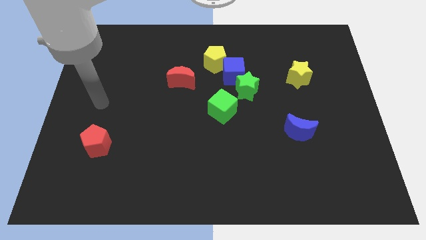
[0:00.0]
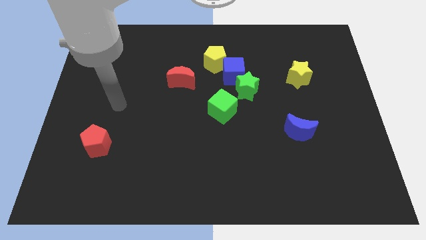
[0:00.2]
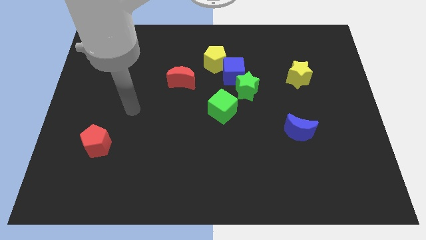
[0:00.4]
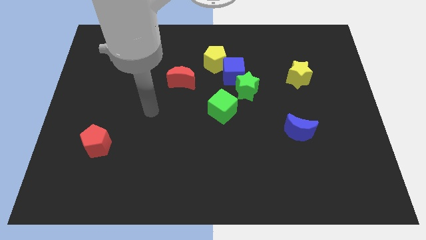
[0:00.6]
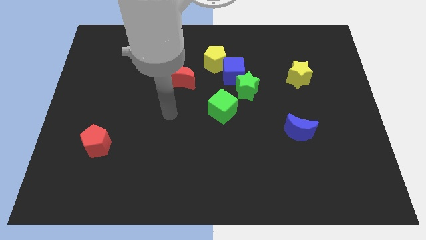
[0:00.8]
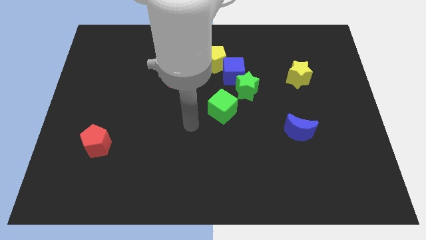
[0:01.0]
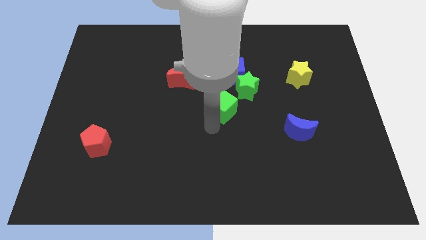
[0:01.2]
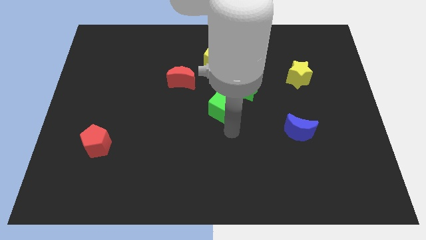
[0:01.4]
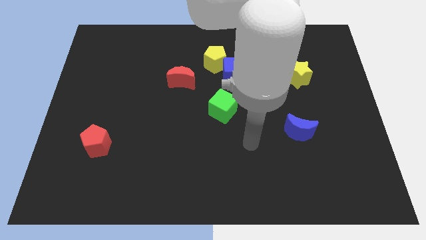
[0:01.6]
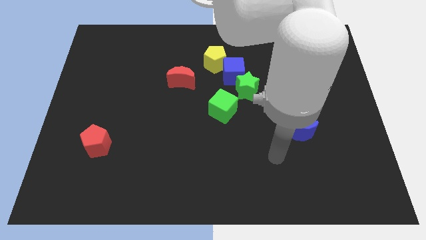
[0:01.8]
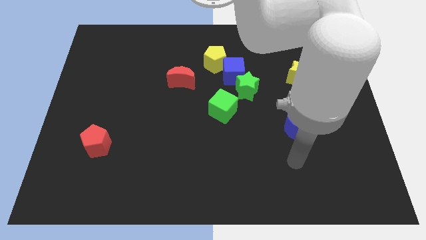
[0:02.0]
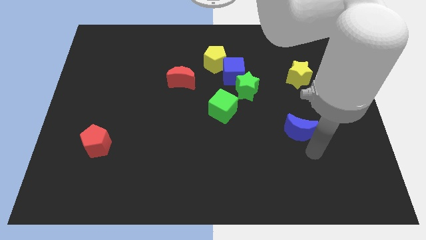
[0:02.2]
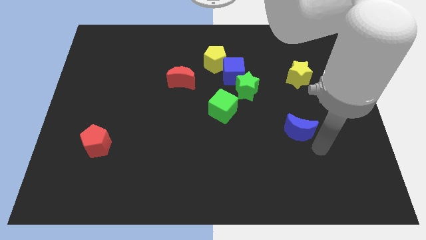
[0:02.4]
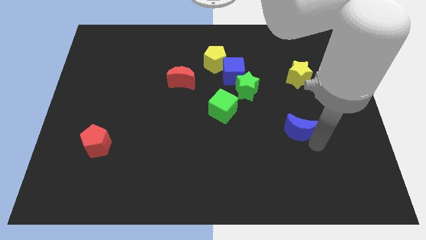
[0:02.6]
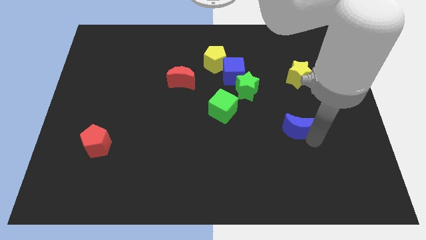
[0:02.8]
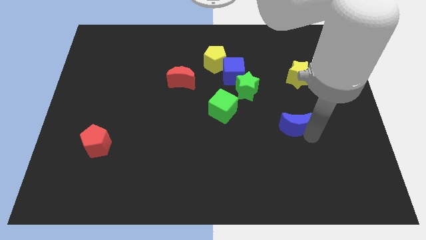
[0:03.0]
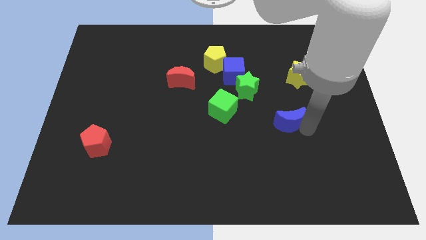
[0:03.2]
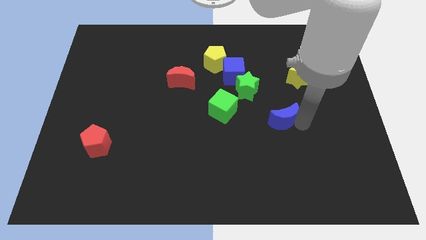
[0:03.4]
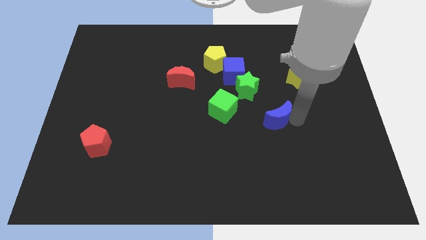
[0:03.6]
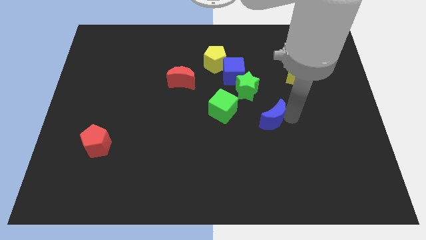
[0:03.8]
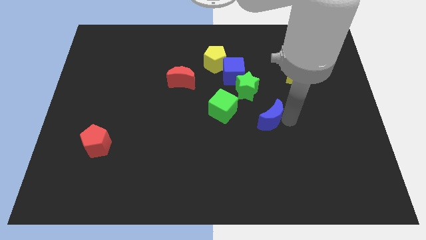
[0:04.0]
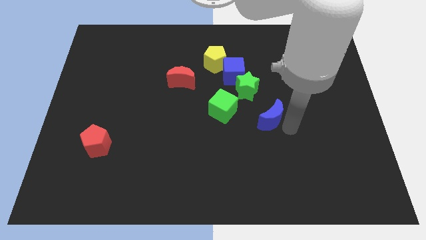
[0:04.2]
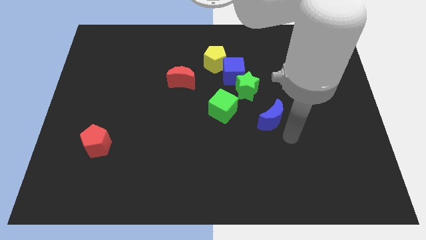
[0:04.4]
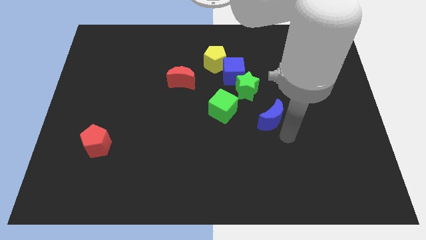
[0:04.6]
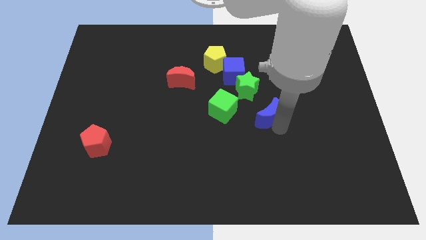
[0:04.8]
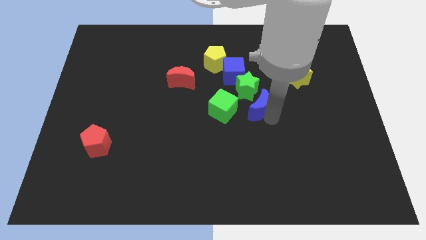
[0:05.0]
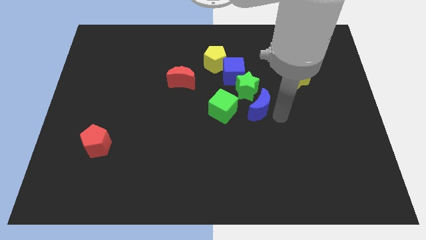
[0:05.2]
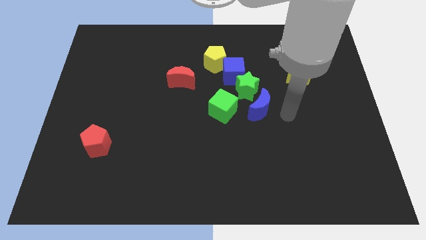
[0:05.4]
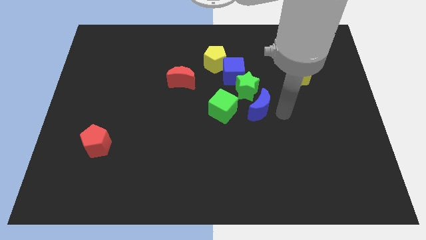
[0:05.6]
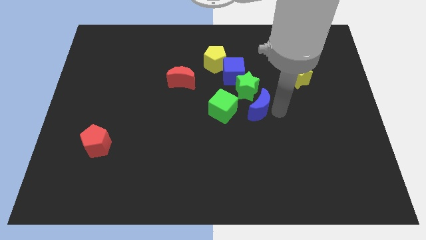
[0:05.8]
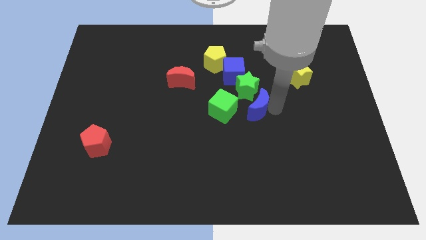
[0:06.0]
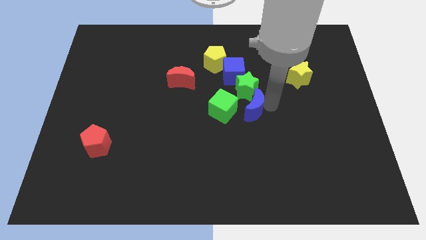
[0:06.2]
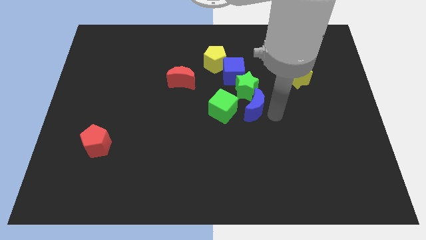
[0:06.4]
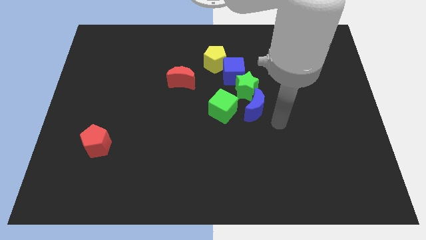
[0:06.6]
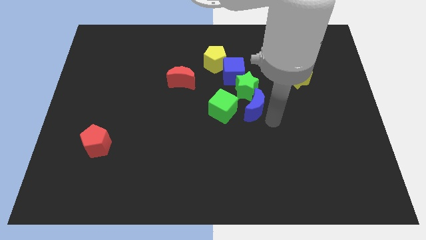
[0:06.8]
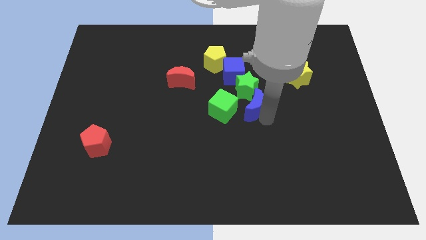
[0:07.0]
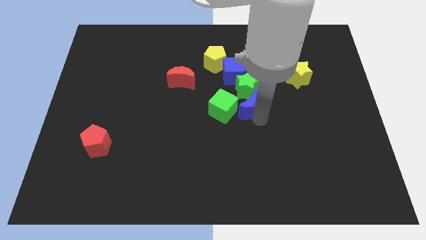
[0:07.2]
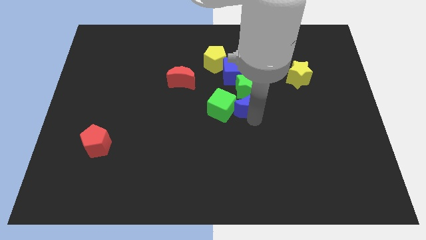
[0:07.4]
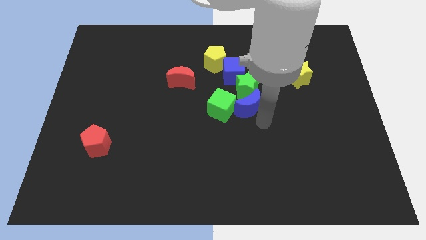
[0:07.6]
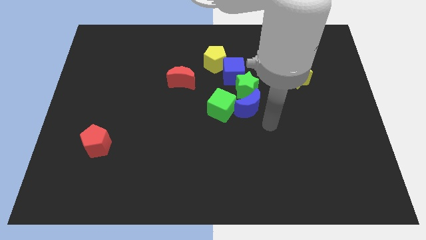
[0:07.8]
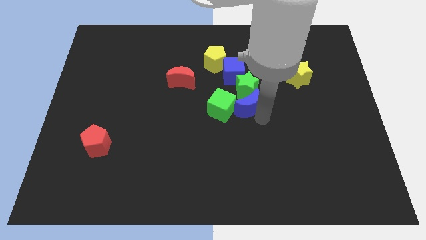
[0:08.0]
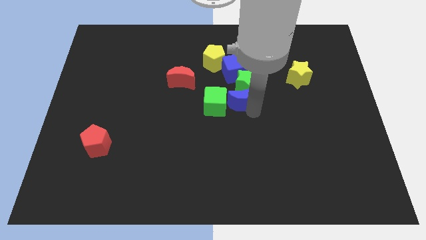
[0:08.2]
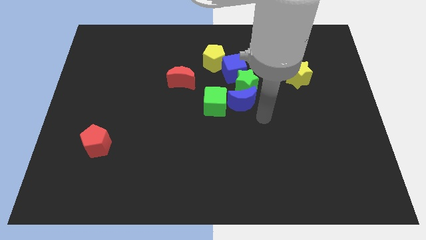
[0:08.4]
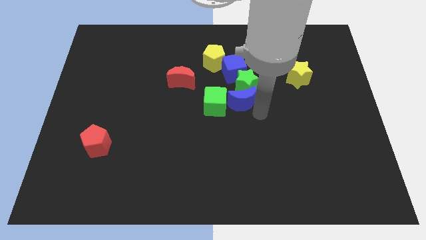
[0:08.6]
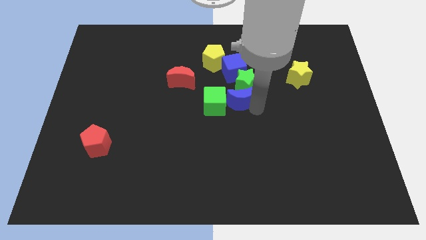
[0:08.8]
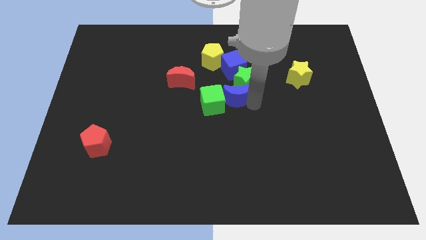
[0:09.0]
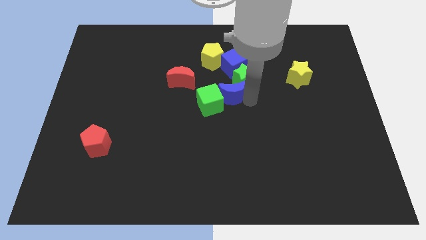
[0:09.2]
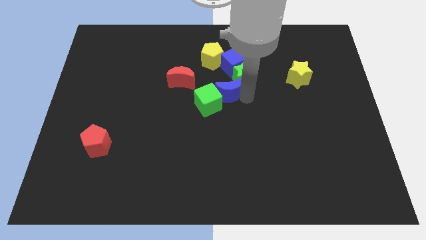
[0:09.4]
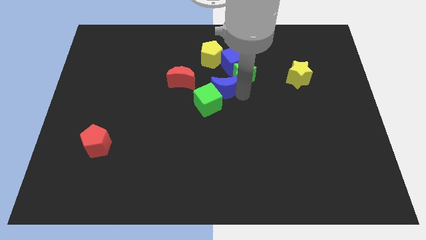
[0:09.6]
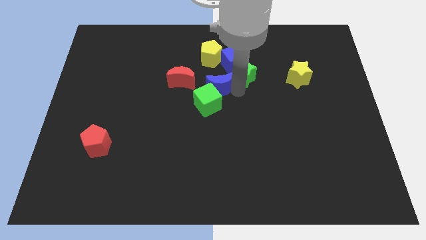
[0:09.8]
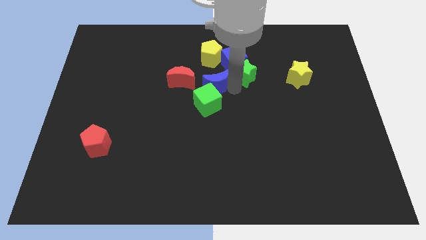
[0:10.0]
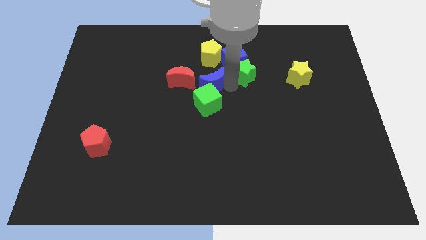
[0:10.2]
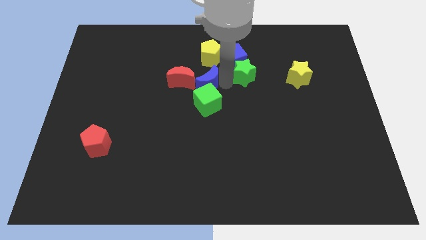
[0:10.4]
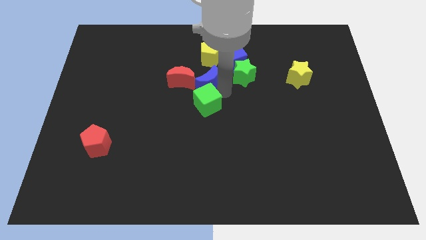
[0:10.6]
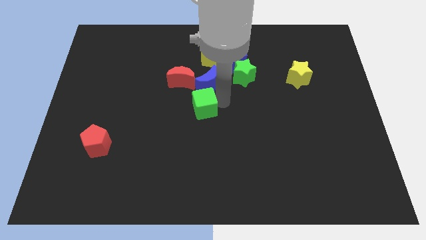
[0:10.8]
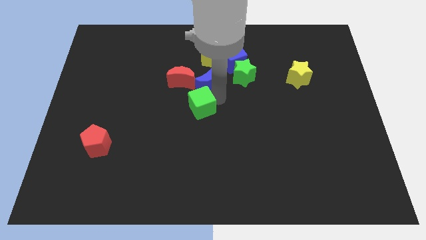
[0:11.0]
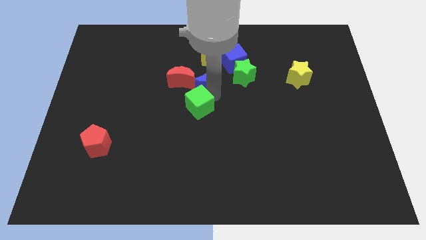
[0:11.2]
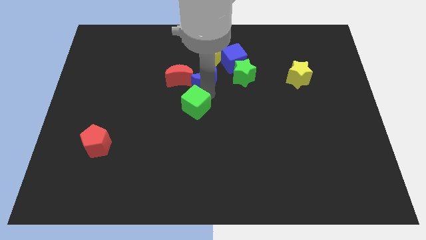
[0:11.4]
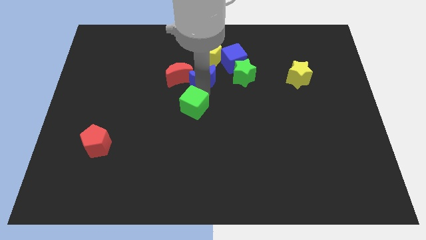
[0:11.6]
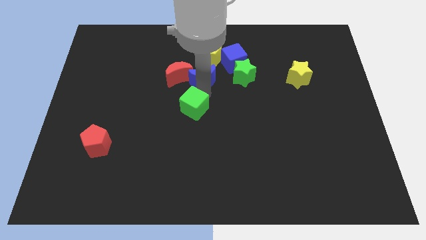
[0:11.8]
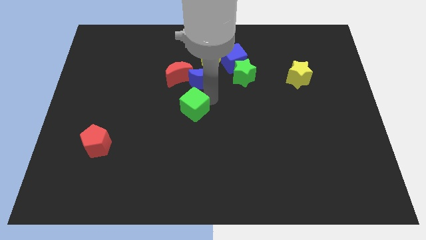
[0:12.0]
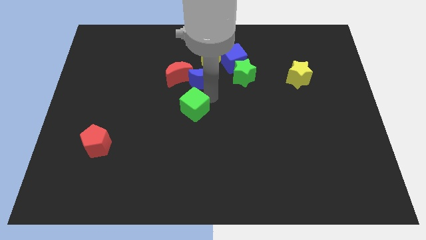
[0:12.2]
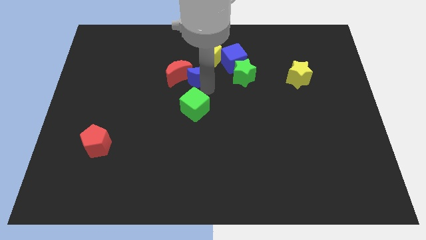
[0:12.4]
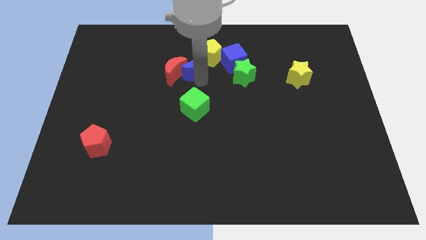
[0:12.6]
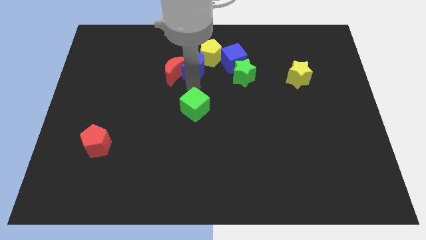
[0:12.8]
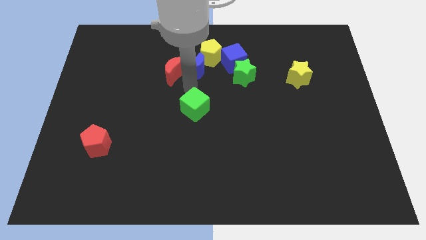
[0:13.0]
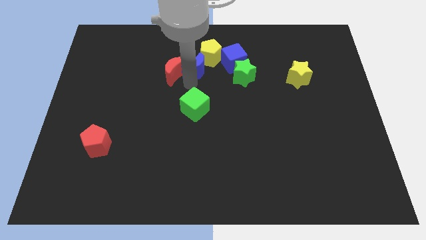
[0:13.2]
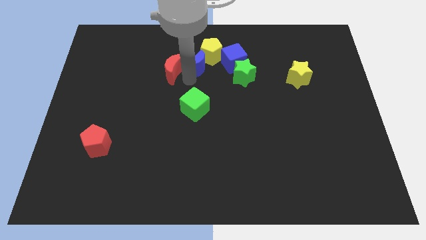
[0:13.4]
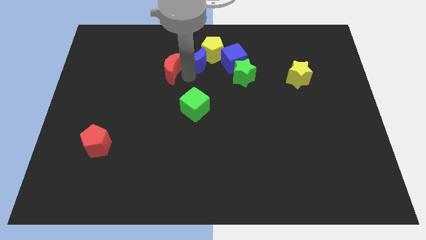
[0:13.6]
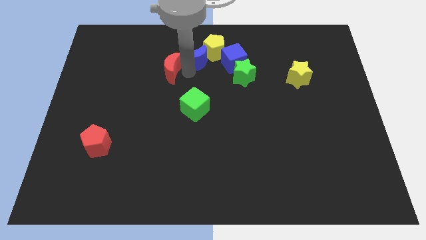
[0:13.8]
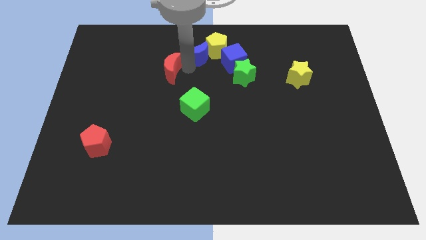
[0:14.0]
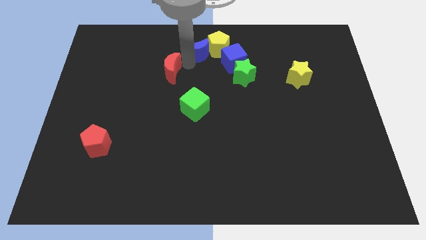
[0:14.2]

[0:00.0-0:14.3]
slide the blue moon diagonally up and to the left of the blue cube
